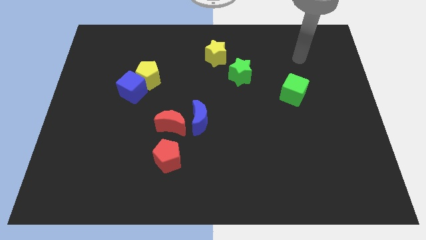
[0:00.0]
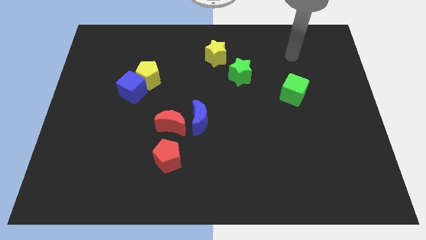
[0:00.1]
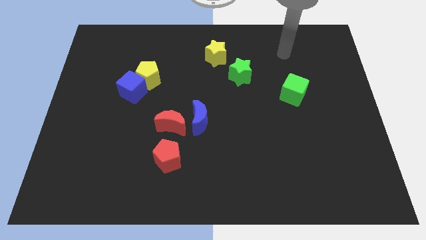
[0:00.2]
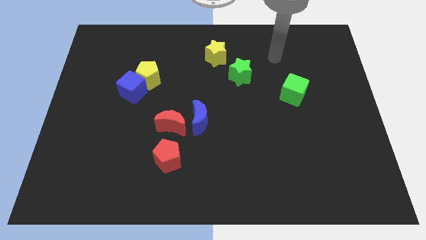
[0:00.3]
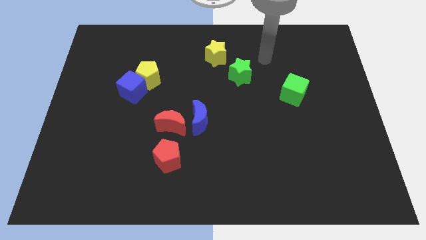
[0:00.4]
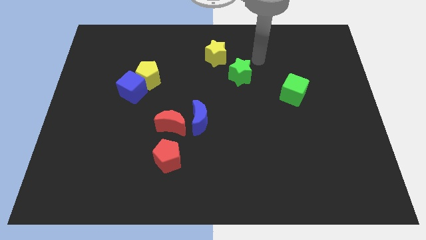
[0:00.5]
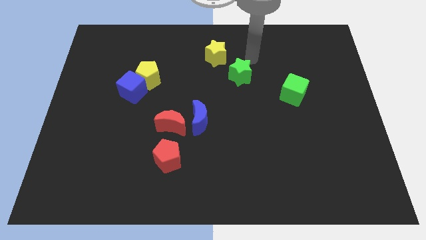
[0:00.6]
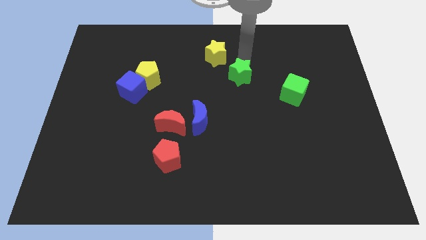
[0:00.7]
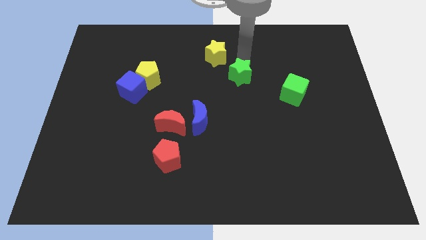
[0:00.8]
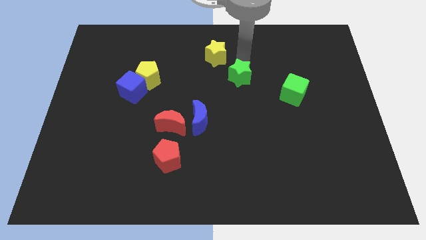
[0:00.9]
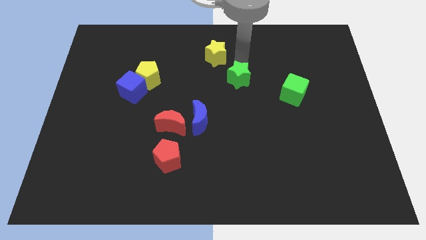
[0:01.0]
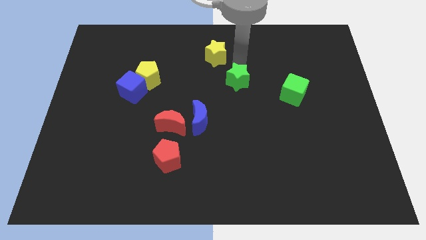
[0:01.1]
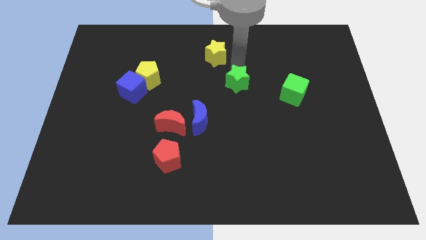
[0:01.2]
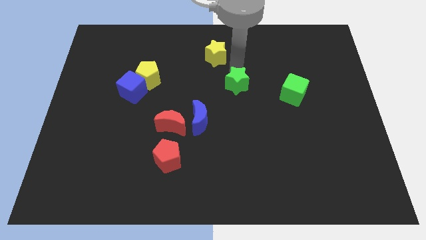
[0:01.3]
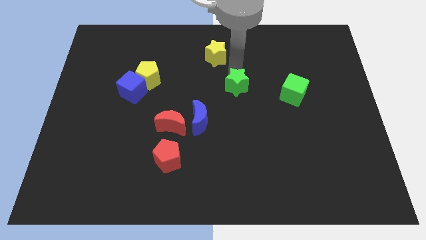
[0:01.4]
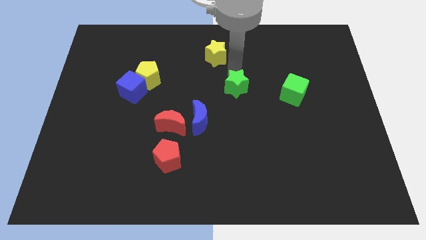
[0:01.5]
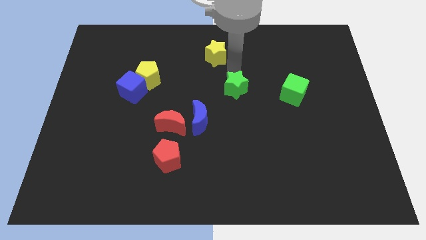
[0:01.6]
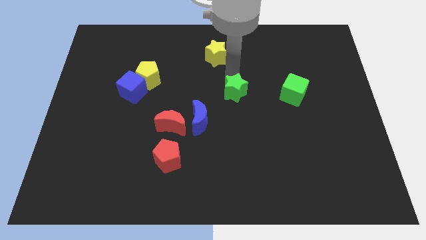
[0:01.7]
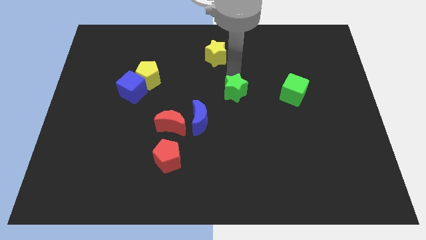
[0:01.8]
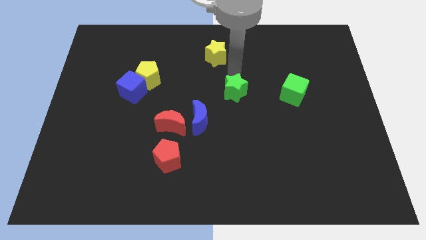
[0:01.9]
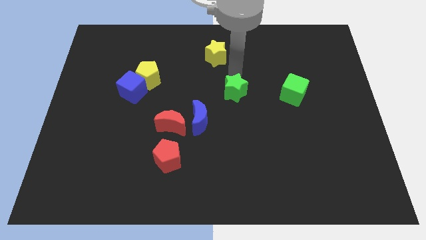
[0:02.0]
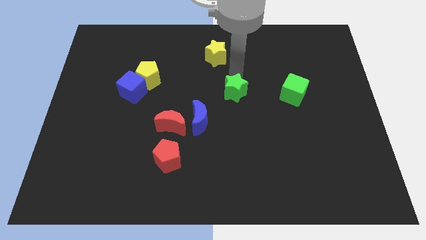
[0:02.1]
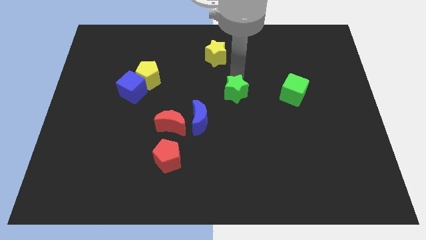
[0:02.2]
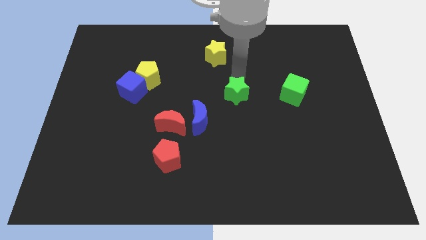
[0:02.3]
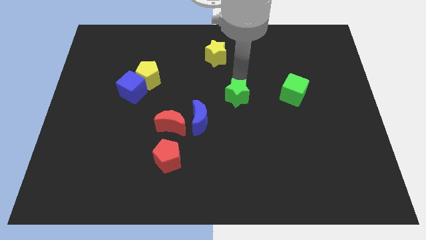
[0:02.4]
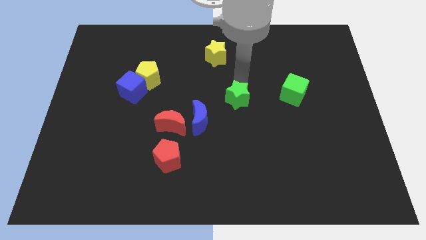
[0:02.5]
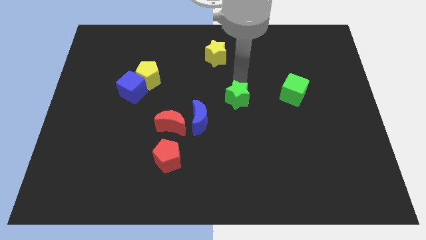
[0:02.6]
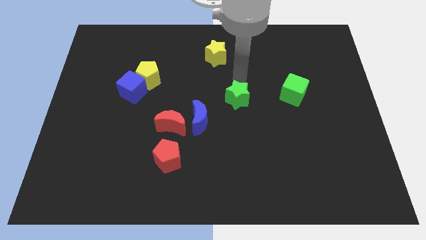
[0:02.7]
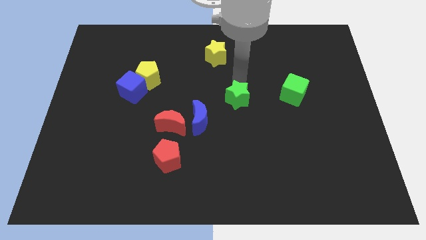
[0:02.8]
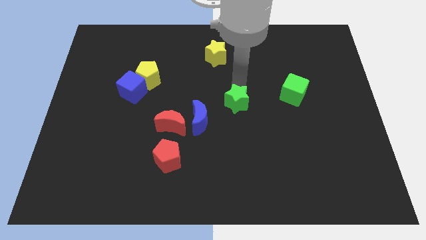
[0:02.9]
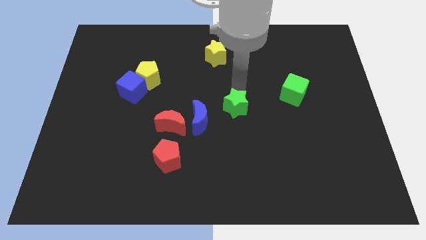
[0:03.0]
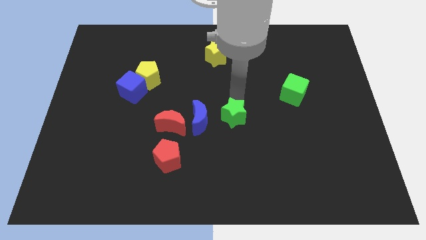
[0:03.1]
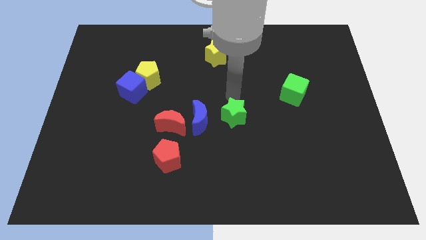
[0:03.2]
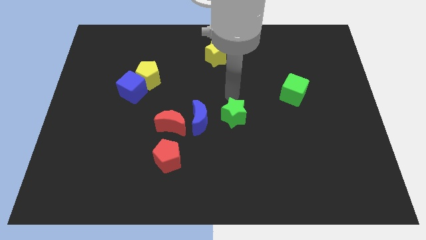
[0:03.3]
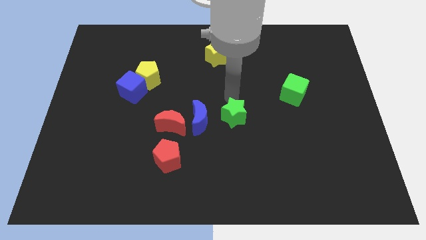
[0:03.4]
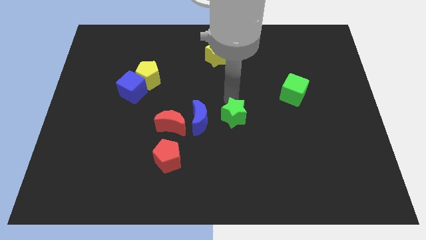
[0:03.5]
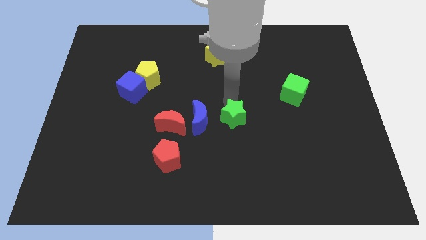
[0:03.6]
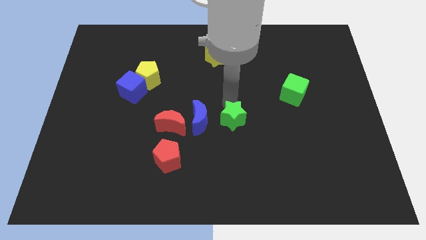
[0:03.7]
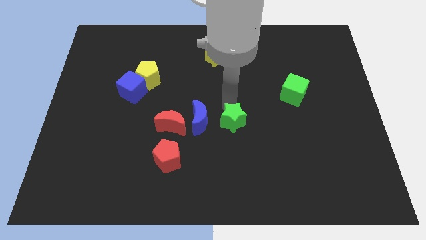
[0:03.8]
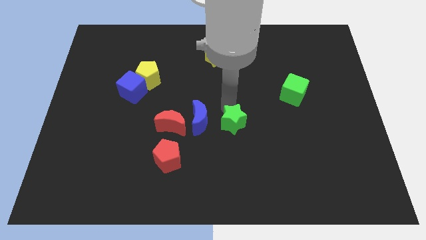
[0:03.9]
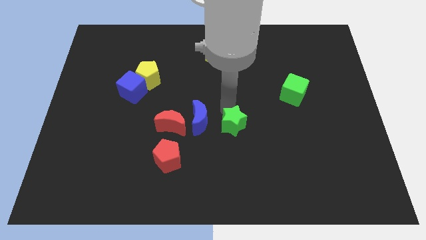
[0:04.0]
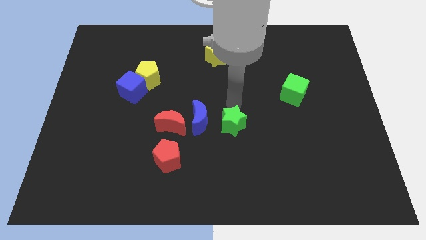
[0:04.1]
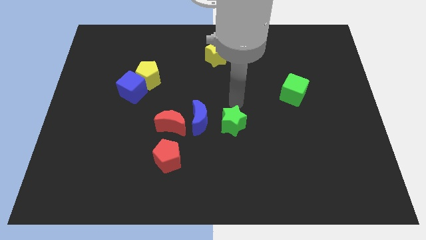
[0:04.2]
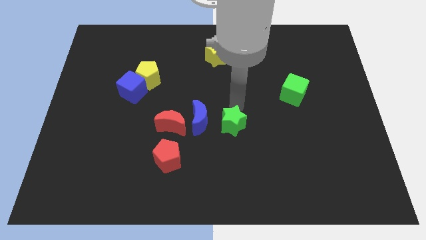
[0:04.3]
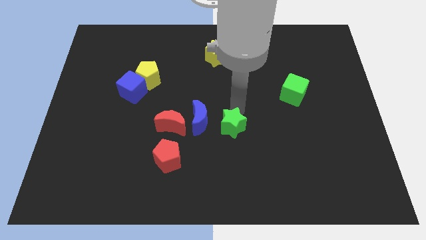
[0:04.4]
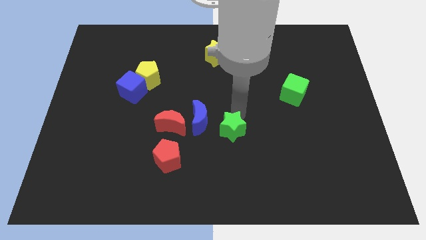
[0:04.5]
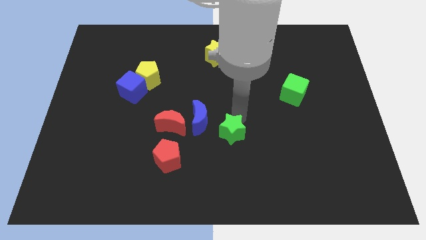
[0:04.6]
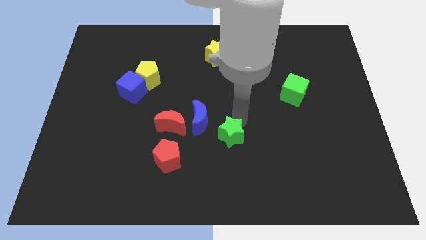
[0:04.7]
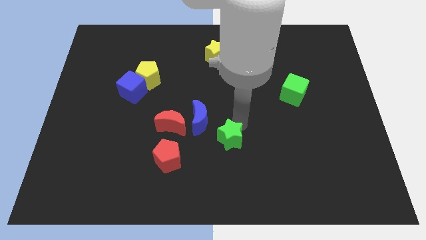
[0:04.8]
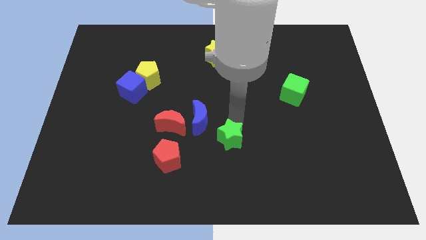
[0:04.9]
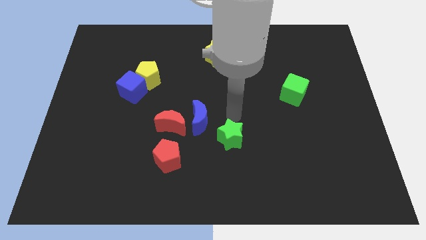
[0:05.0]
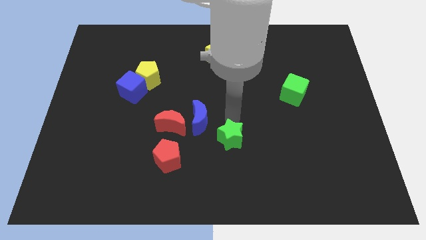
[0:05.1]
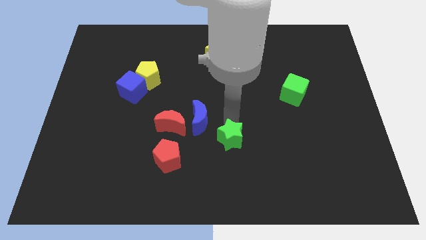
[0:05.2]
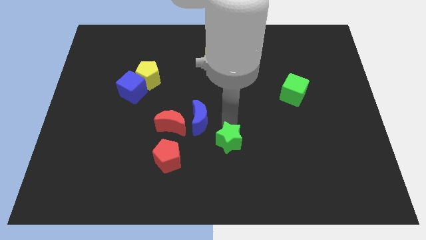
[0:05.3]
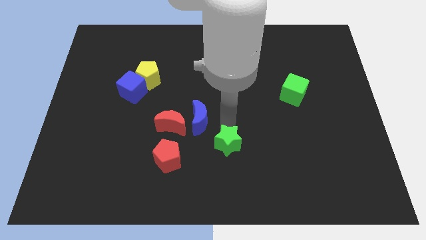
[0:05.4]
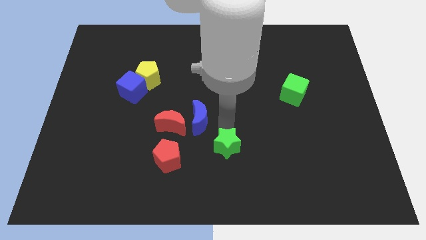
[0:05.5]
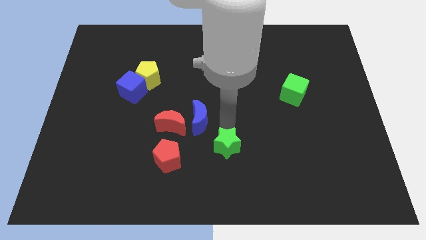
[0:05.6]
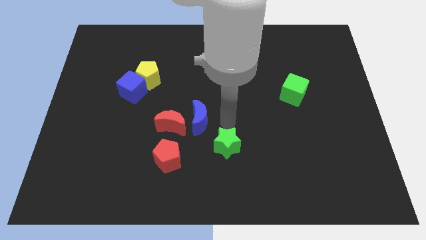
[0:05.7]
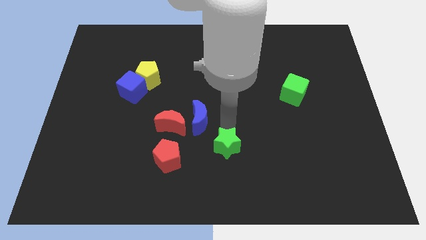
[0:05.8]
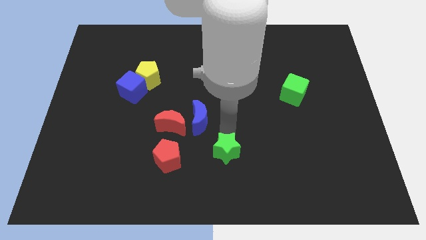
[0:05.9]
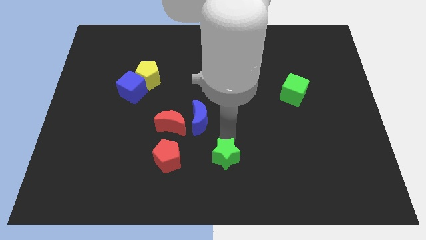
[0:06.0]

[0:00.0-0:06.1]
slide the green star to the bottom side

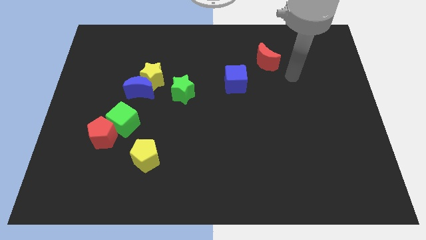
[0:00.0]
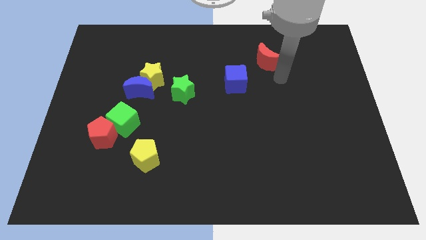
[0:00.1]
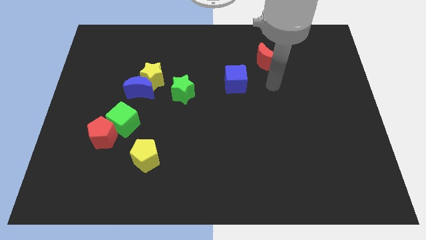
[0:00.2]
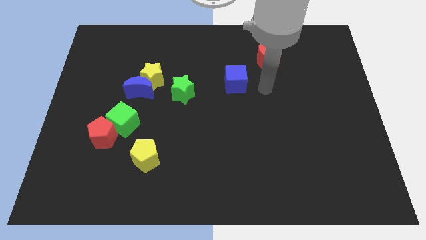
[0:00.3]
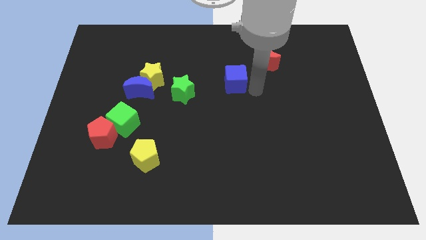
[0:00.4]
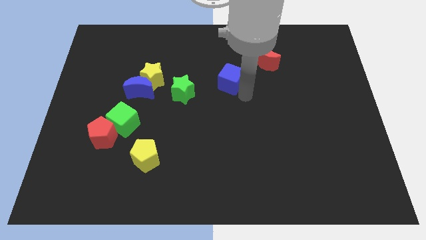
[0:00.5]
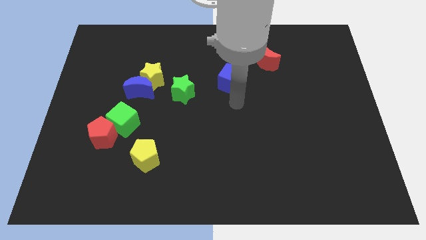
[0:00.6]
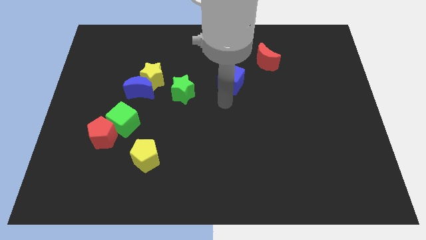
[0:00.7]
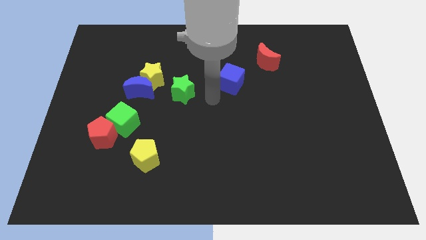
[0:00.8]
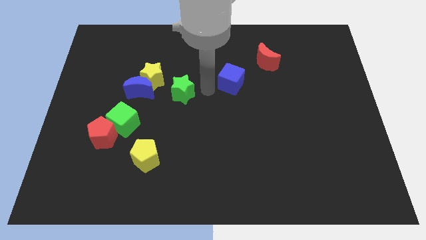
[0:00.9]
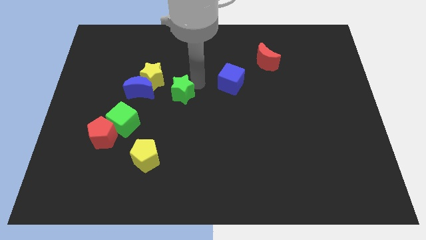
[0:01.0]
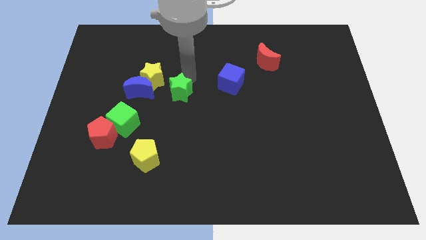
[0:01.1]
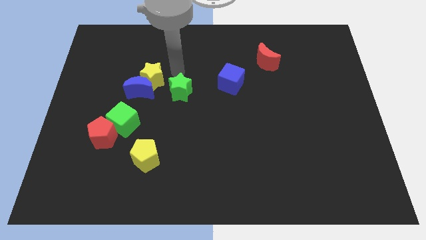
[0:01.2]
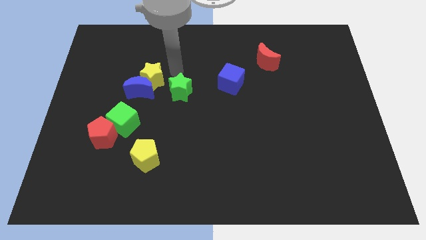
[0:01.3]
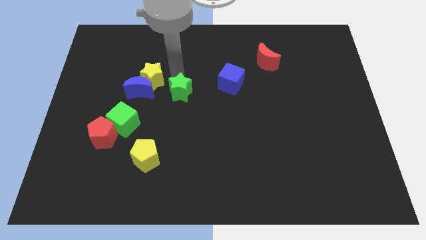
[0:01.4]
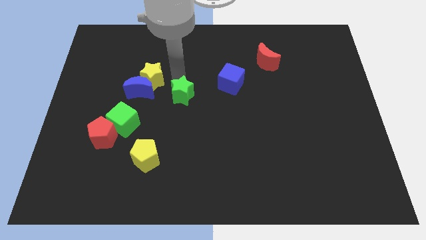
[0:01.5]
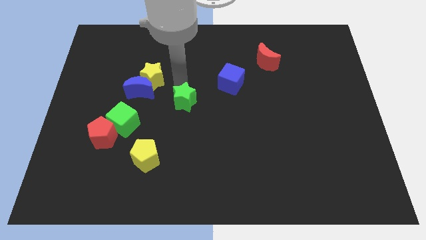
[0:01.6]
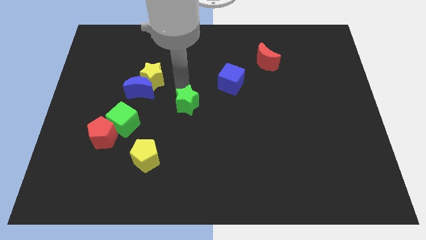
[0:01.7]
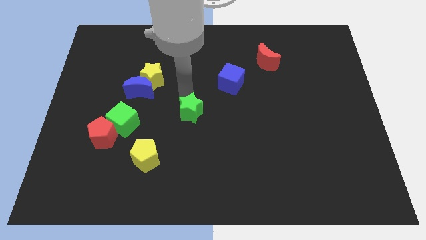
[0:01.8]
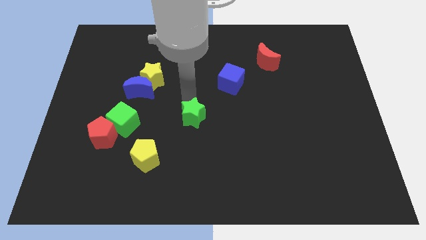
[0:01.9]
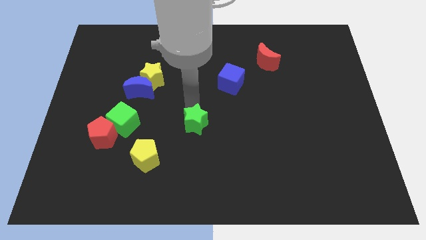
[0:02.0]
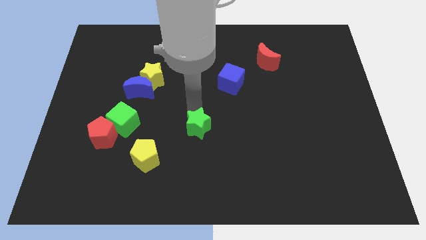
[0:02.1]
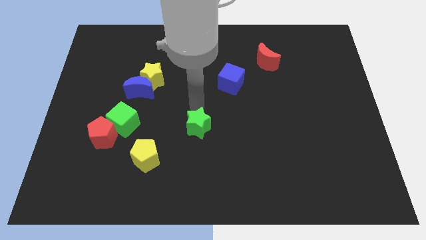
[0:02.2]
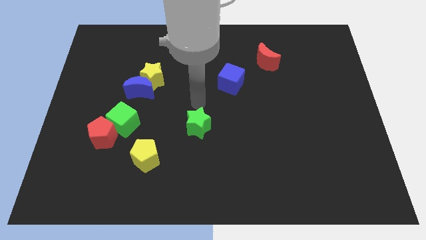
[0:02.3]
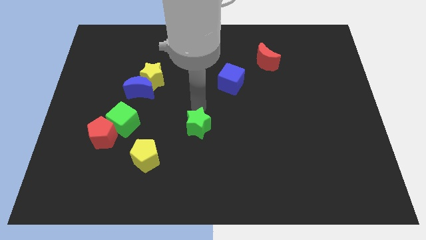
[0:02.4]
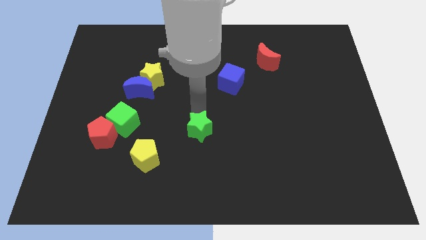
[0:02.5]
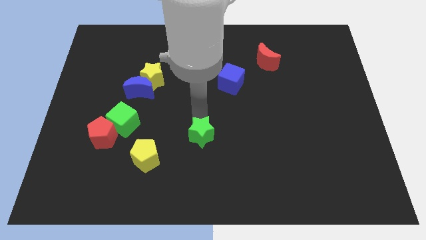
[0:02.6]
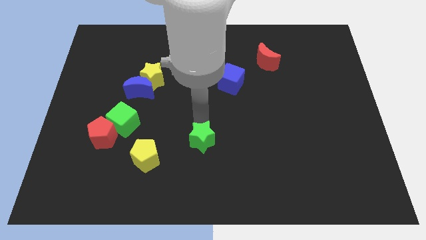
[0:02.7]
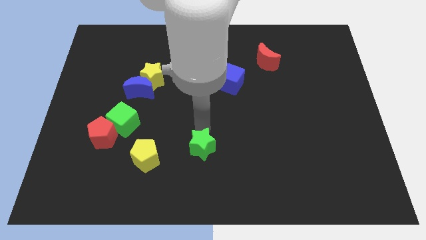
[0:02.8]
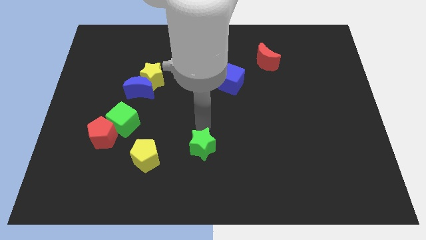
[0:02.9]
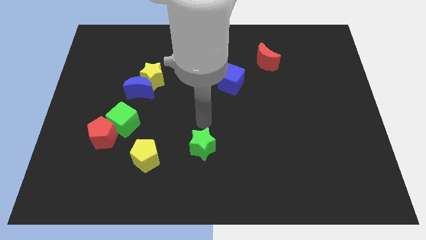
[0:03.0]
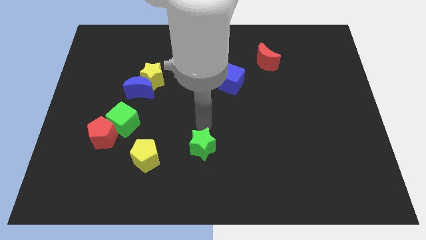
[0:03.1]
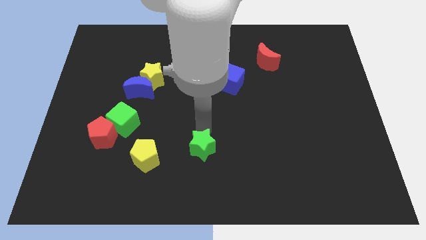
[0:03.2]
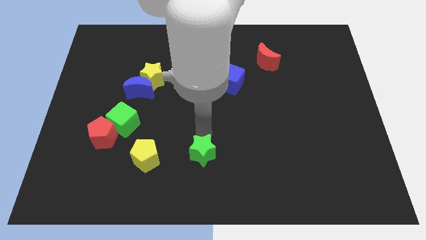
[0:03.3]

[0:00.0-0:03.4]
slide the green star to the bottom
